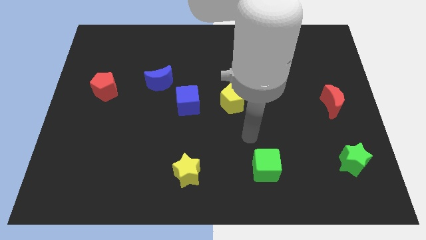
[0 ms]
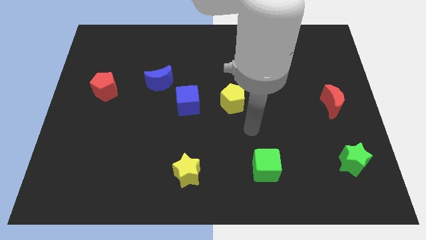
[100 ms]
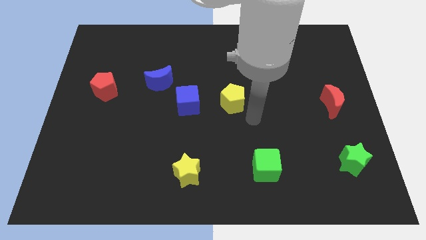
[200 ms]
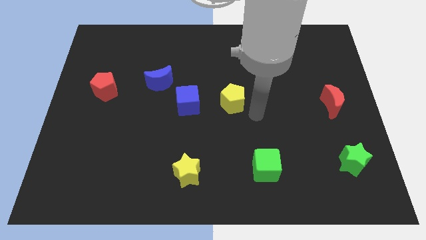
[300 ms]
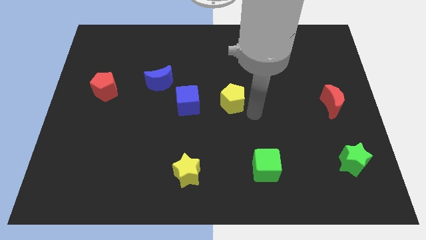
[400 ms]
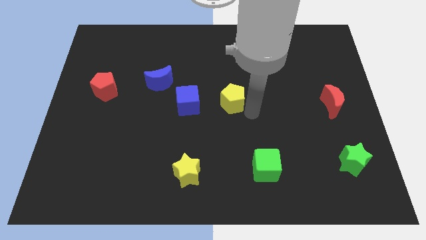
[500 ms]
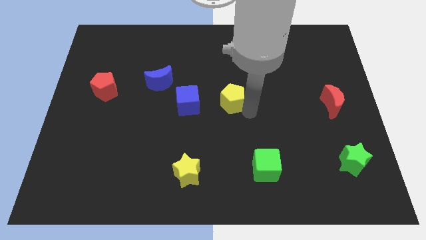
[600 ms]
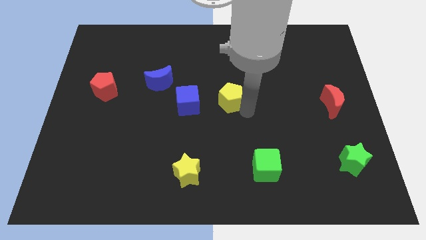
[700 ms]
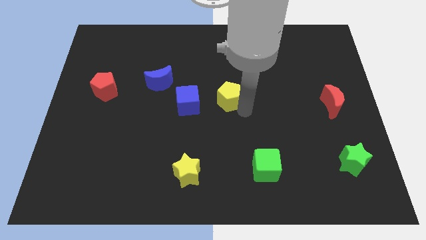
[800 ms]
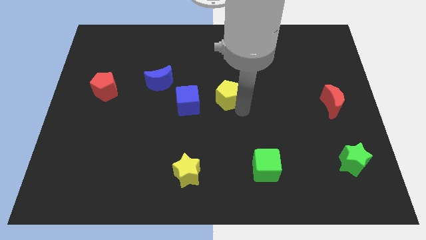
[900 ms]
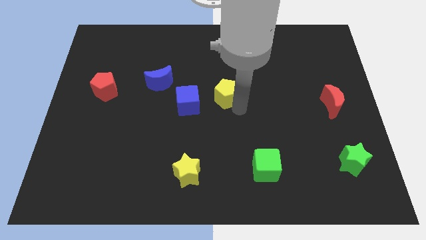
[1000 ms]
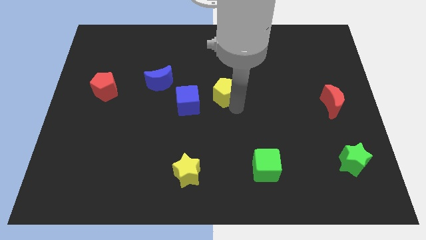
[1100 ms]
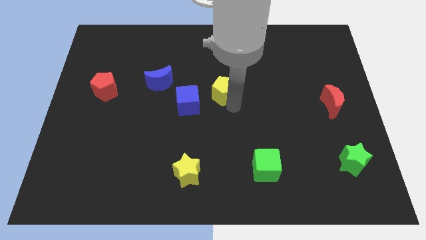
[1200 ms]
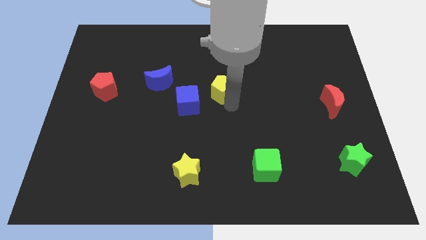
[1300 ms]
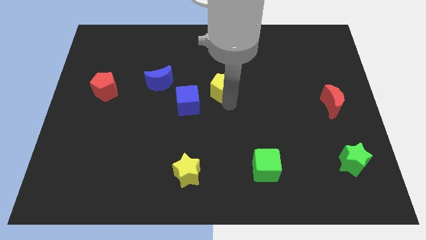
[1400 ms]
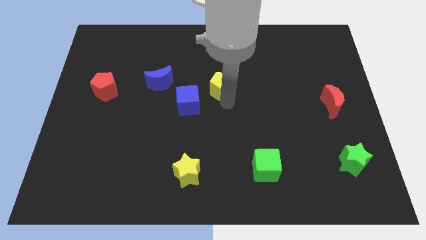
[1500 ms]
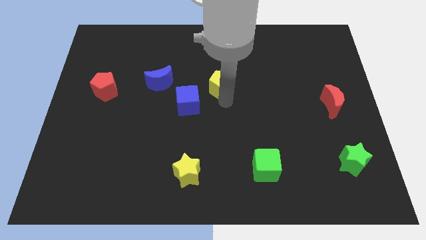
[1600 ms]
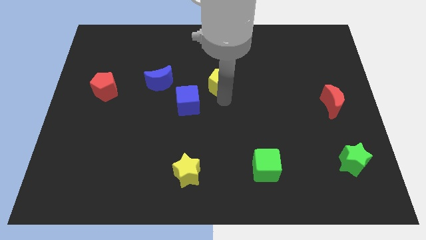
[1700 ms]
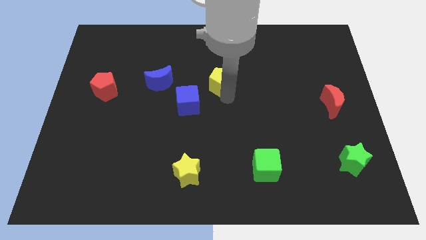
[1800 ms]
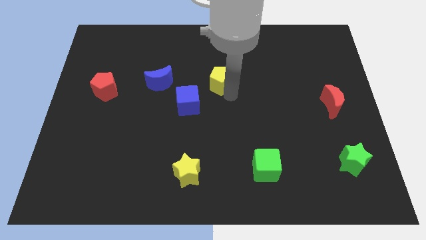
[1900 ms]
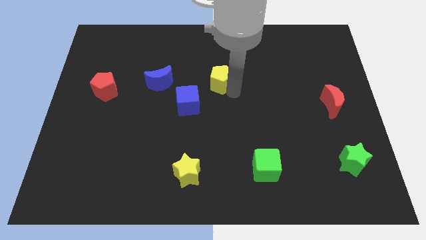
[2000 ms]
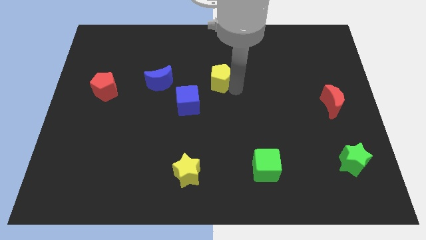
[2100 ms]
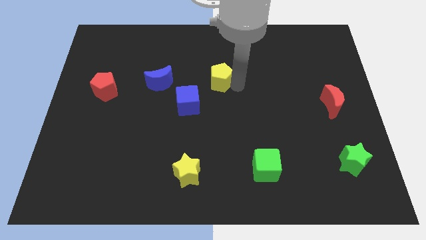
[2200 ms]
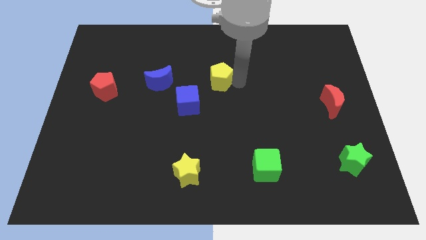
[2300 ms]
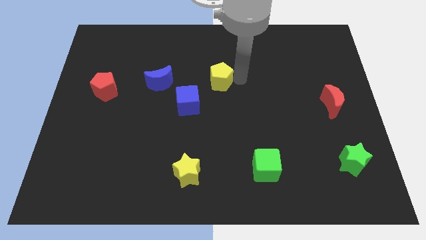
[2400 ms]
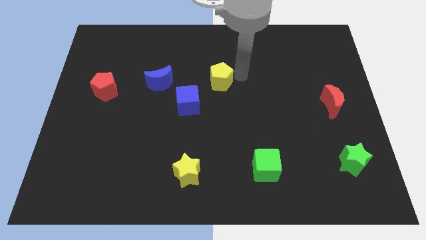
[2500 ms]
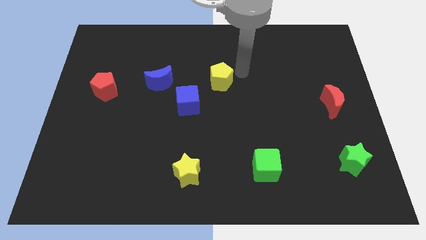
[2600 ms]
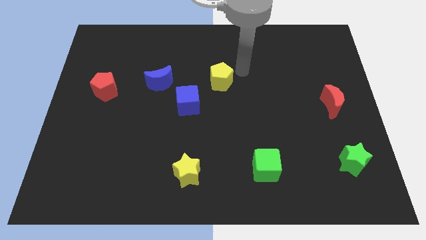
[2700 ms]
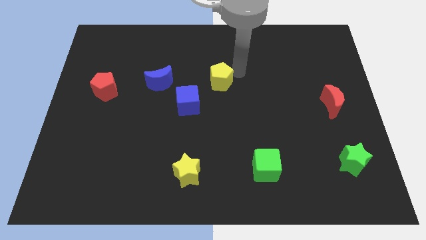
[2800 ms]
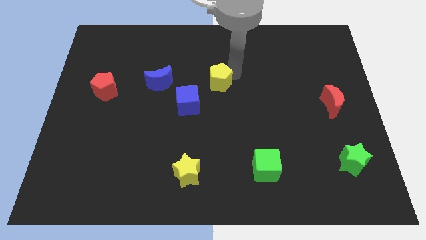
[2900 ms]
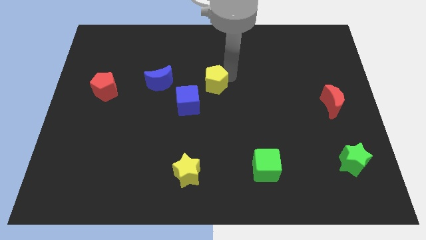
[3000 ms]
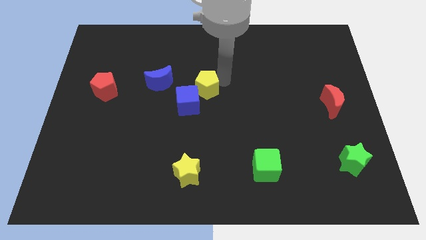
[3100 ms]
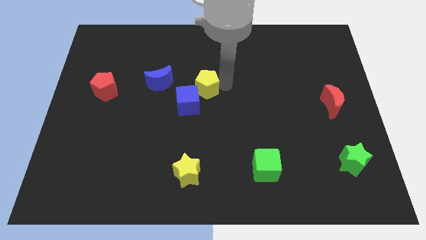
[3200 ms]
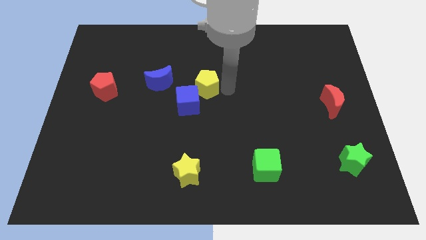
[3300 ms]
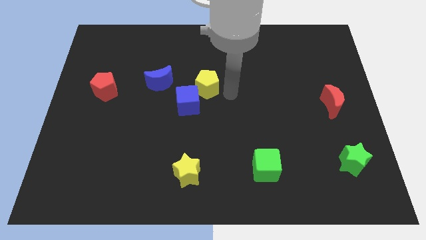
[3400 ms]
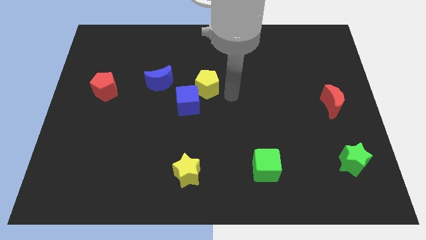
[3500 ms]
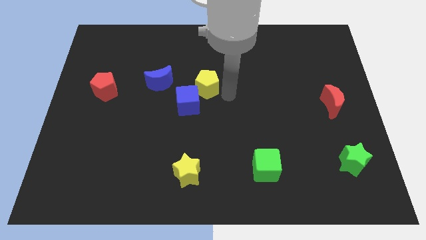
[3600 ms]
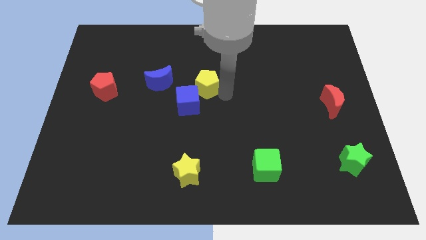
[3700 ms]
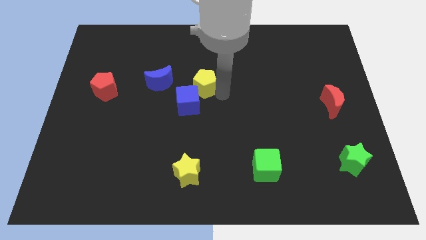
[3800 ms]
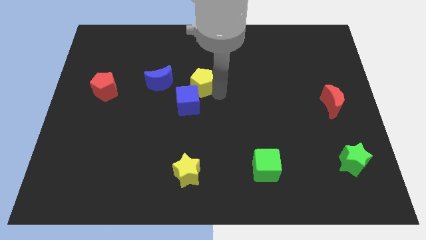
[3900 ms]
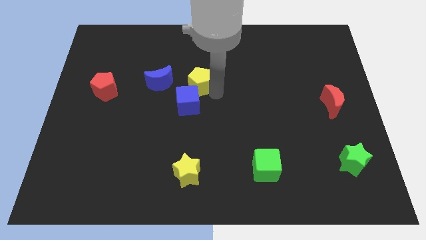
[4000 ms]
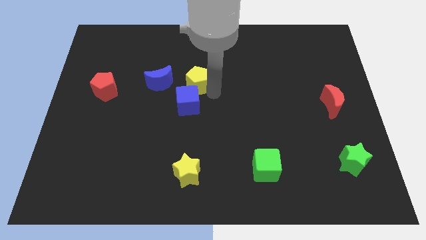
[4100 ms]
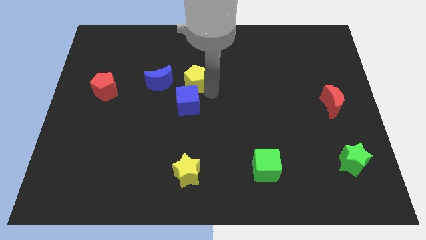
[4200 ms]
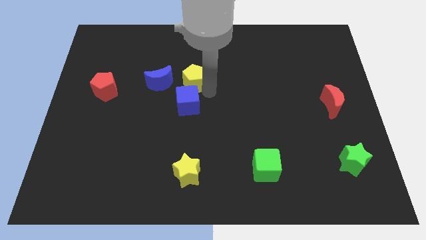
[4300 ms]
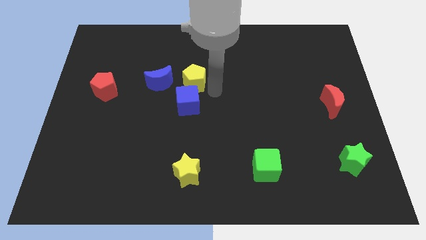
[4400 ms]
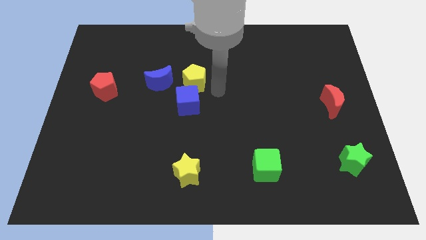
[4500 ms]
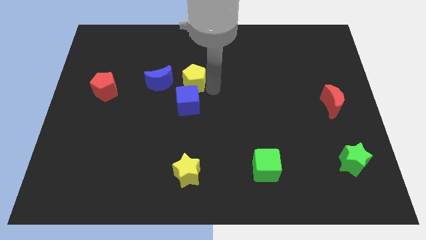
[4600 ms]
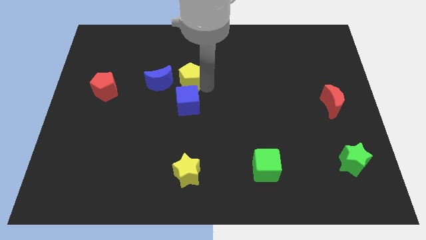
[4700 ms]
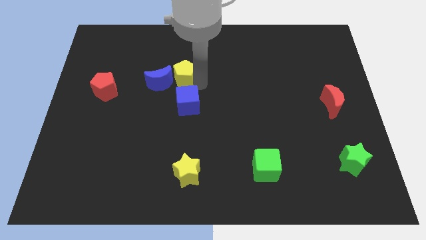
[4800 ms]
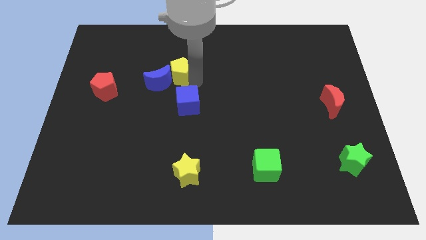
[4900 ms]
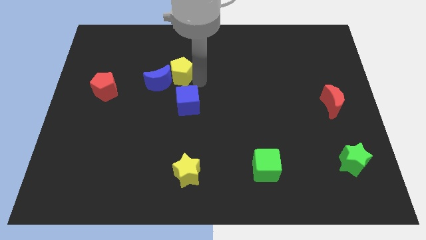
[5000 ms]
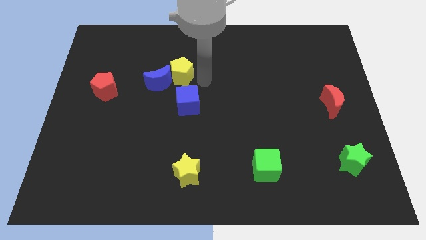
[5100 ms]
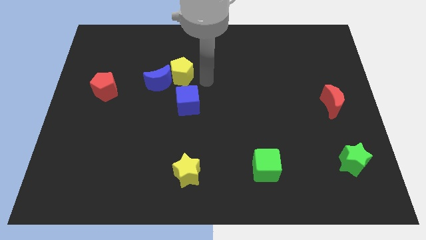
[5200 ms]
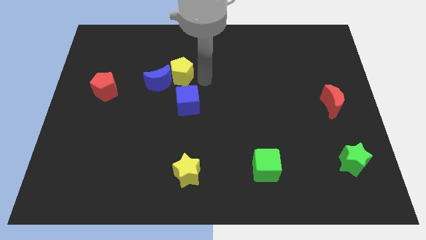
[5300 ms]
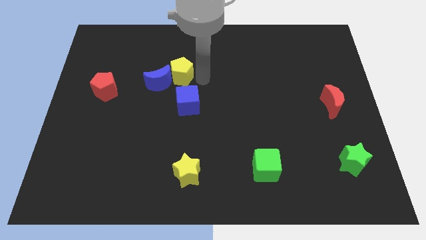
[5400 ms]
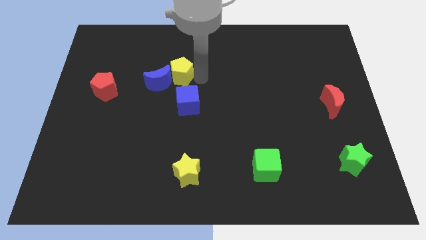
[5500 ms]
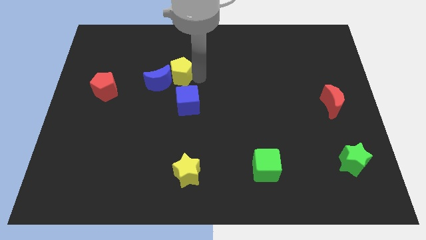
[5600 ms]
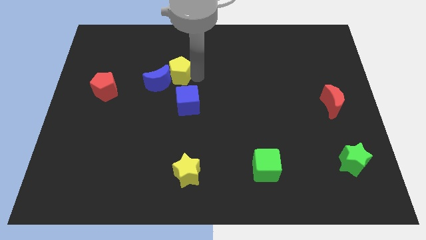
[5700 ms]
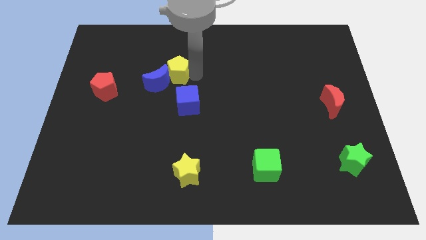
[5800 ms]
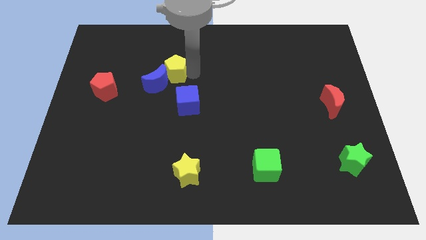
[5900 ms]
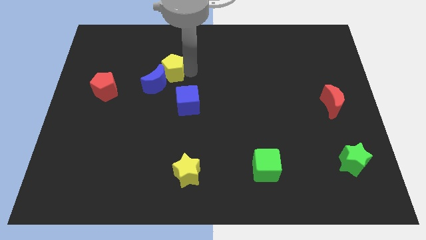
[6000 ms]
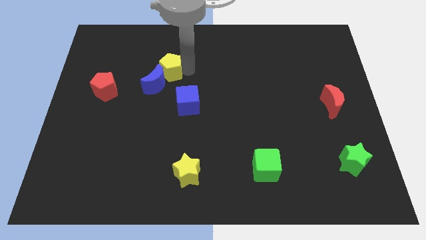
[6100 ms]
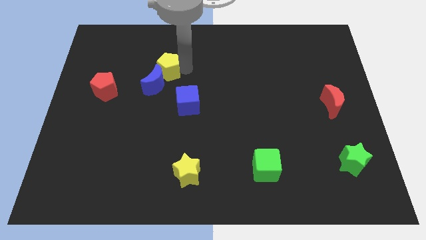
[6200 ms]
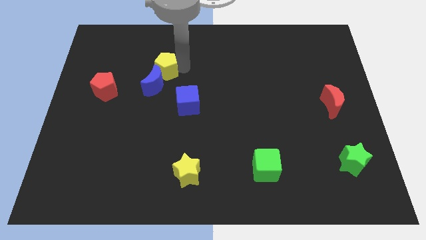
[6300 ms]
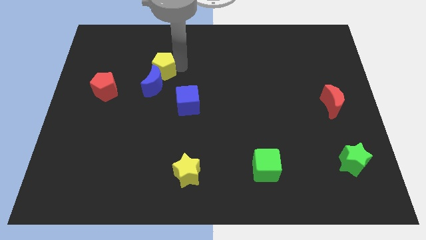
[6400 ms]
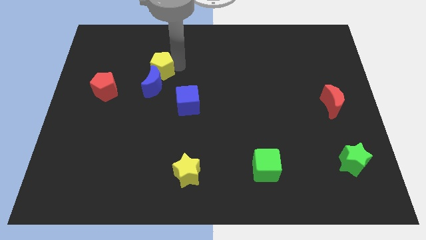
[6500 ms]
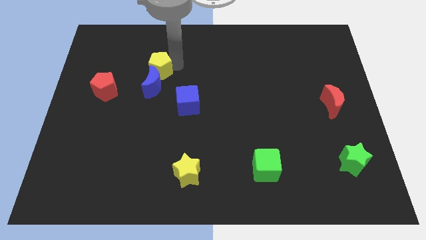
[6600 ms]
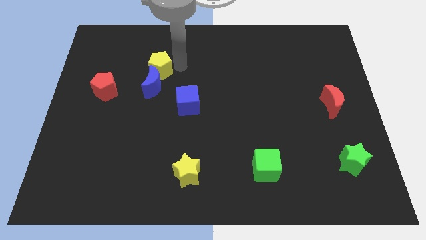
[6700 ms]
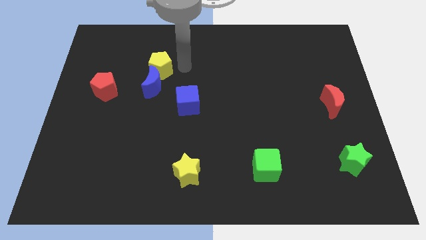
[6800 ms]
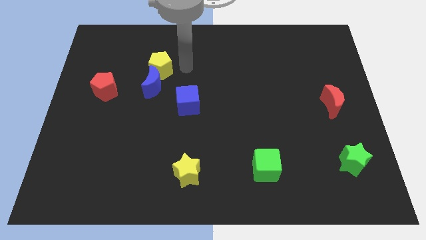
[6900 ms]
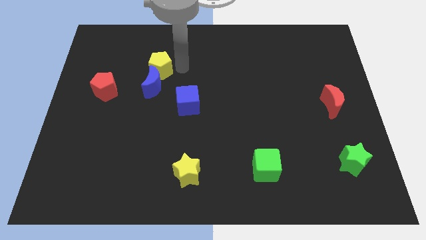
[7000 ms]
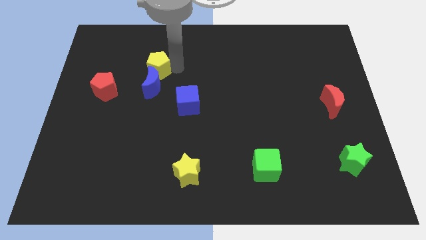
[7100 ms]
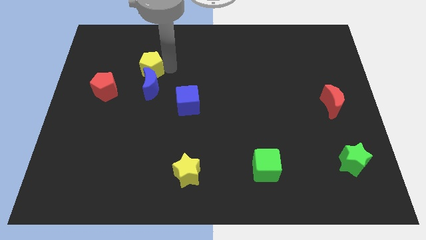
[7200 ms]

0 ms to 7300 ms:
push the yellow pentagon diagonally up and to the right of the red pentagon
